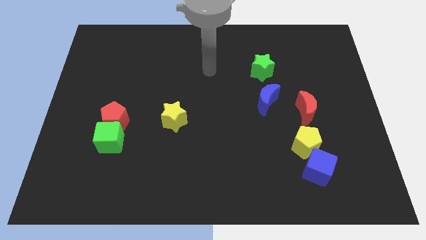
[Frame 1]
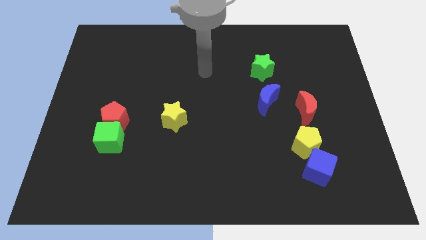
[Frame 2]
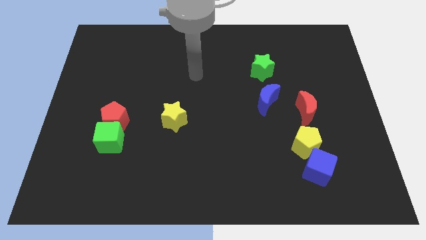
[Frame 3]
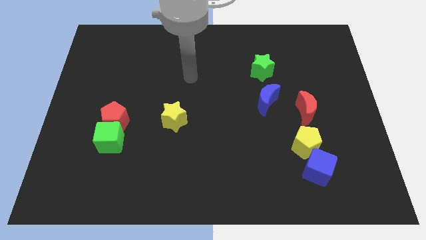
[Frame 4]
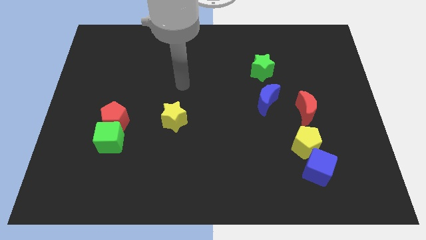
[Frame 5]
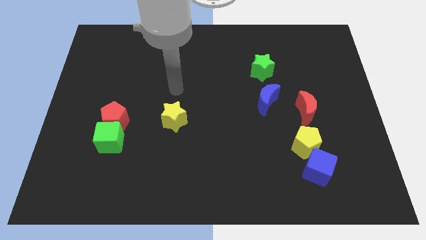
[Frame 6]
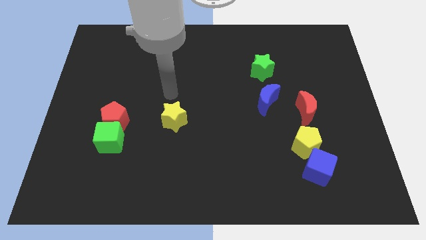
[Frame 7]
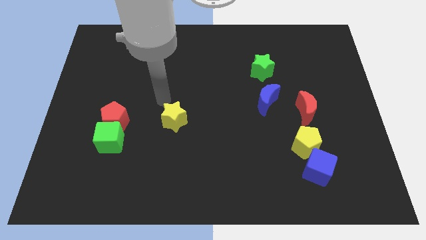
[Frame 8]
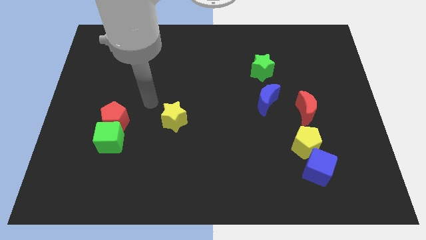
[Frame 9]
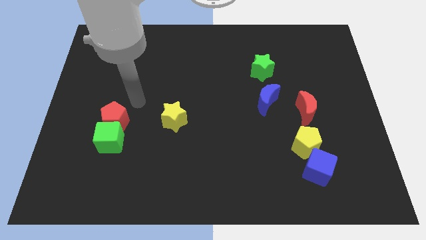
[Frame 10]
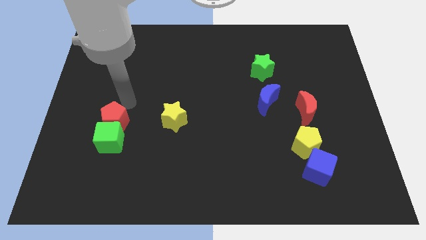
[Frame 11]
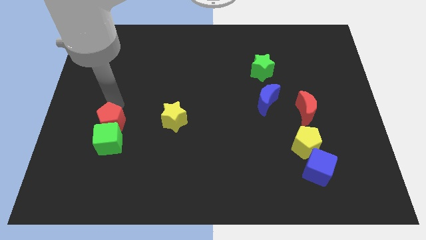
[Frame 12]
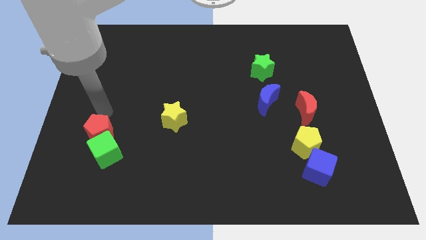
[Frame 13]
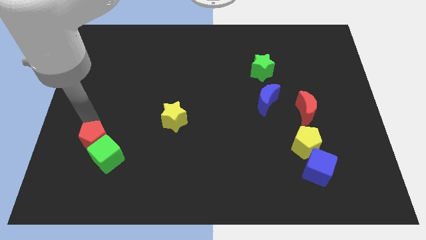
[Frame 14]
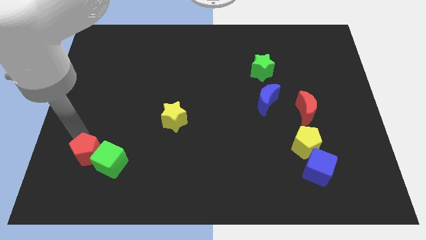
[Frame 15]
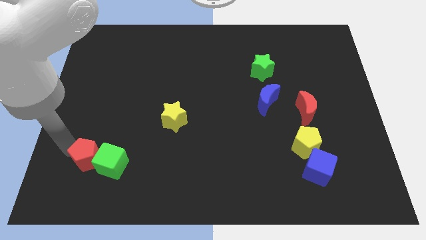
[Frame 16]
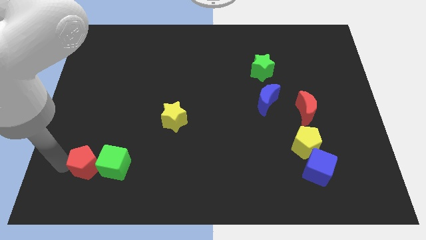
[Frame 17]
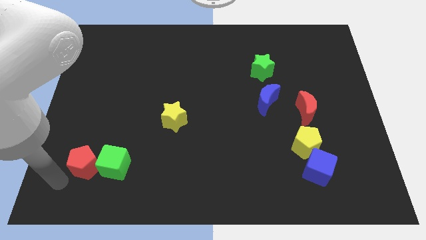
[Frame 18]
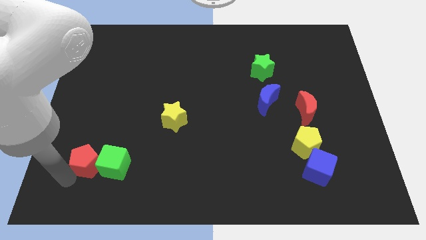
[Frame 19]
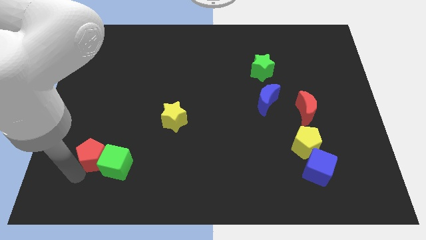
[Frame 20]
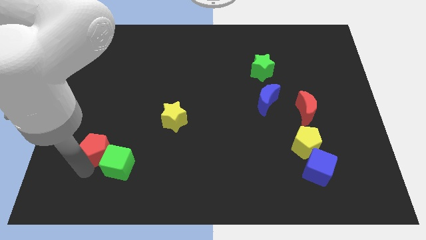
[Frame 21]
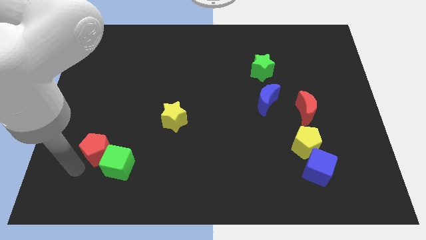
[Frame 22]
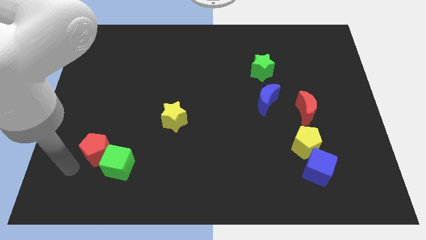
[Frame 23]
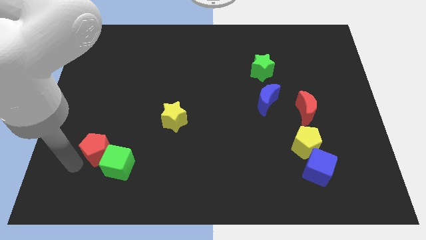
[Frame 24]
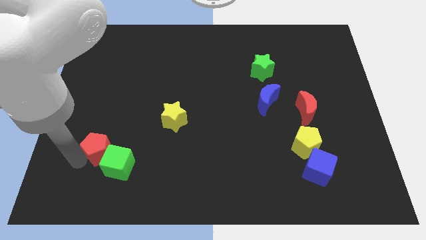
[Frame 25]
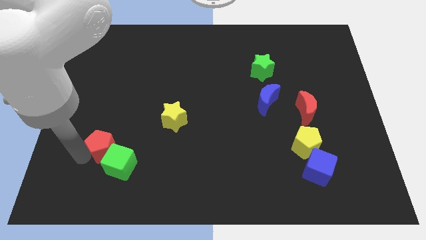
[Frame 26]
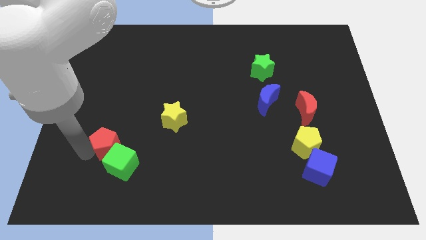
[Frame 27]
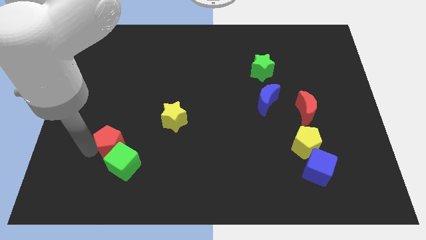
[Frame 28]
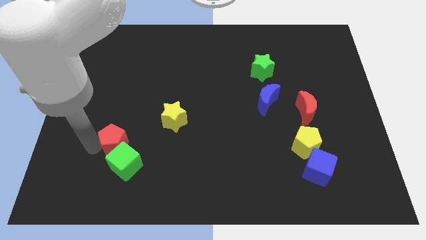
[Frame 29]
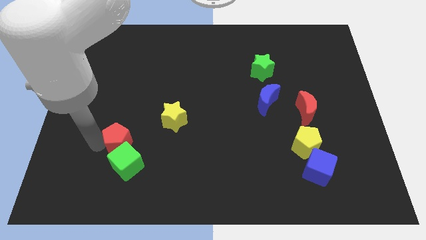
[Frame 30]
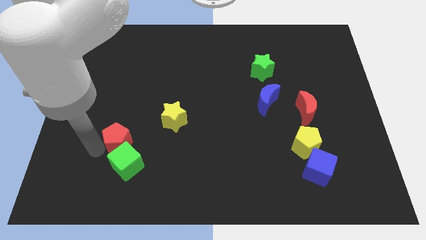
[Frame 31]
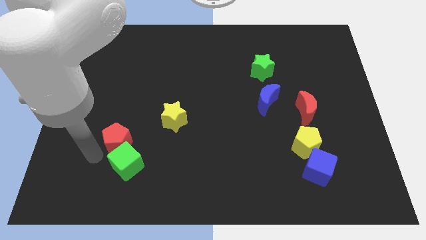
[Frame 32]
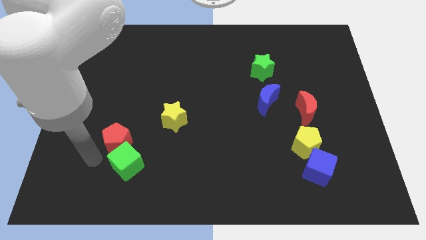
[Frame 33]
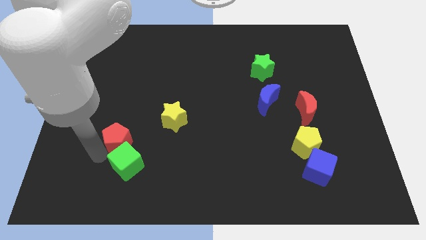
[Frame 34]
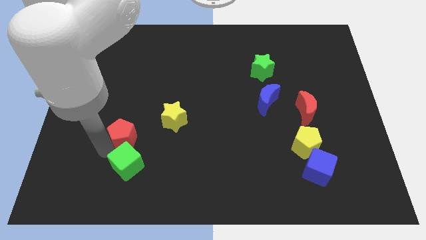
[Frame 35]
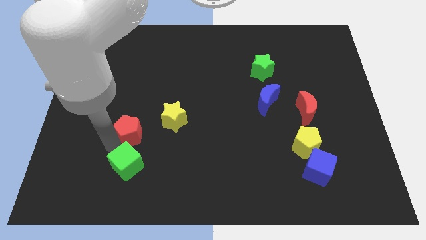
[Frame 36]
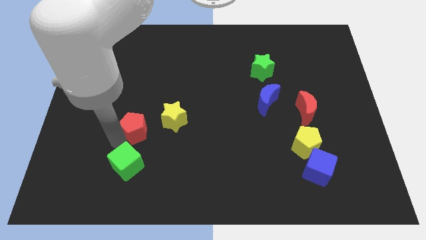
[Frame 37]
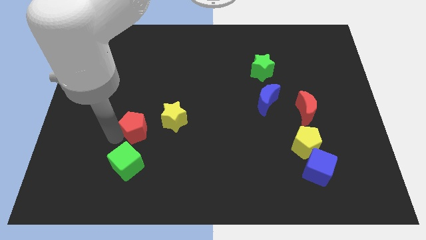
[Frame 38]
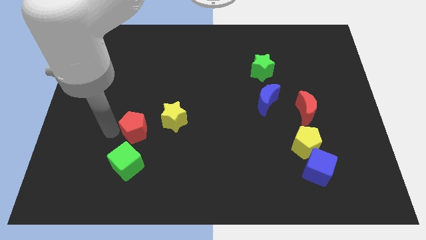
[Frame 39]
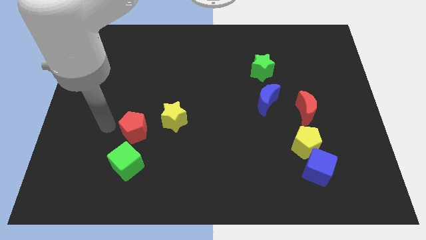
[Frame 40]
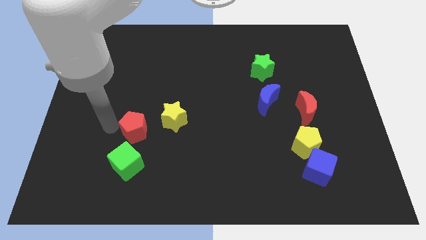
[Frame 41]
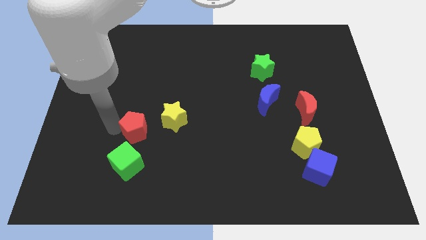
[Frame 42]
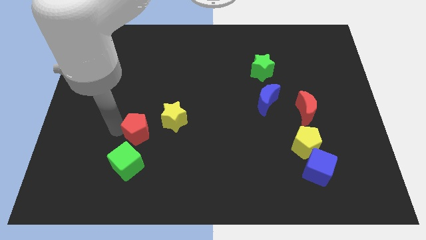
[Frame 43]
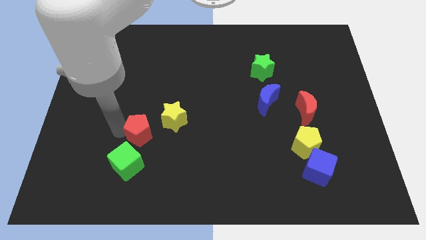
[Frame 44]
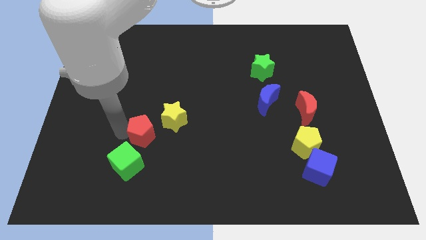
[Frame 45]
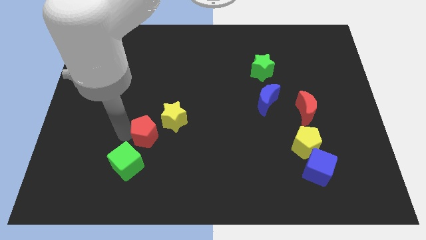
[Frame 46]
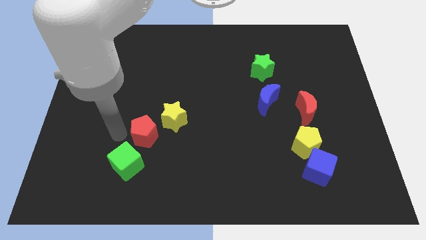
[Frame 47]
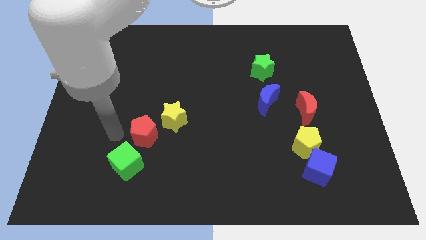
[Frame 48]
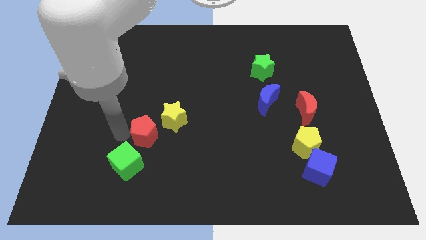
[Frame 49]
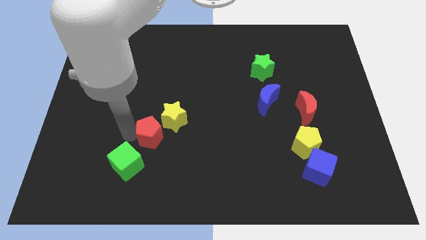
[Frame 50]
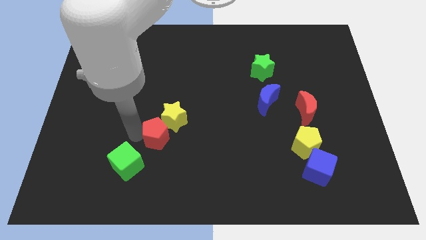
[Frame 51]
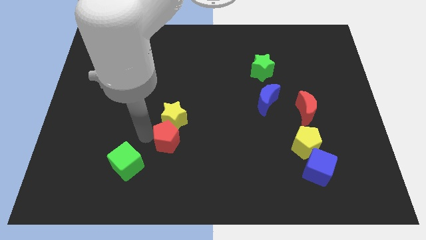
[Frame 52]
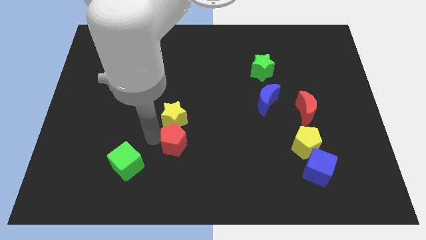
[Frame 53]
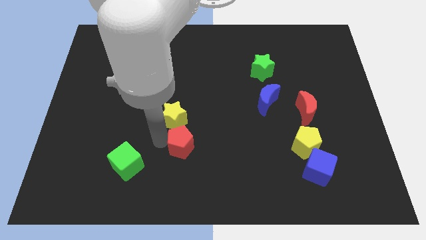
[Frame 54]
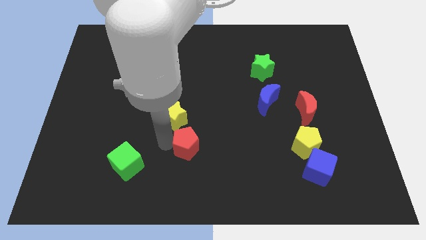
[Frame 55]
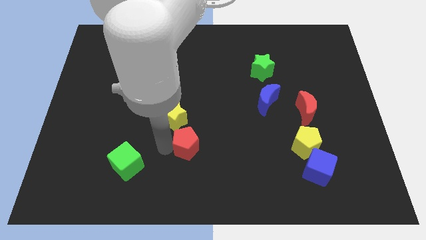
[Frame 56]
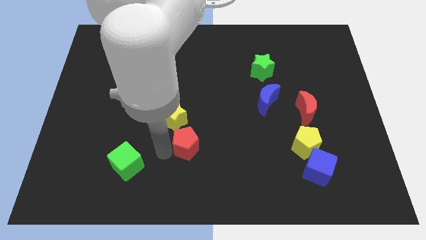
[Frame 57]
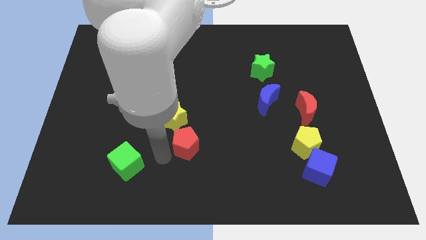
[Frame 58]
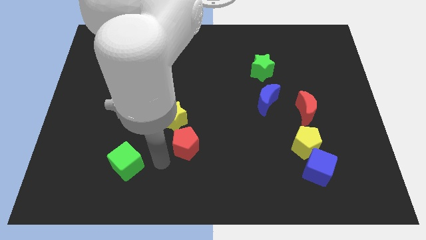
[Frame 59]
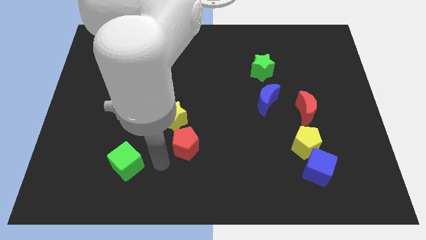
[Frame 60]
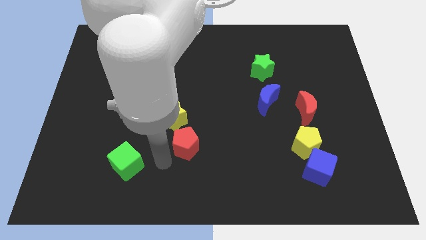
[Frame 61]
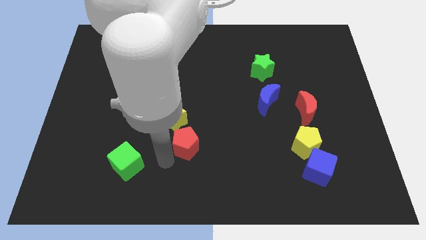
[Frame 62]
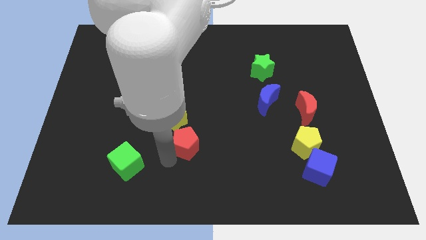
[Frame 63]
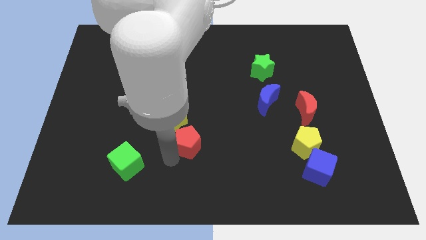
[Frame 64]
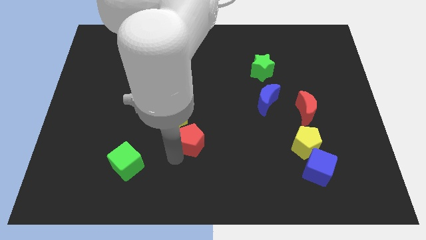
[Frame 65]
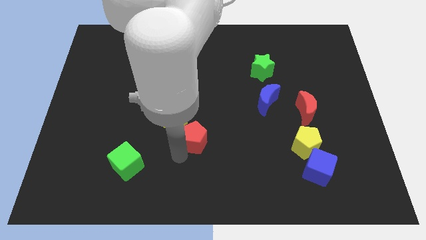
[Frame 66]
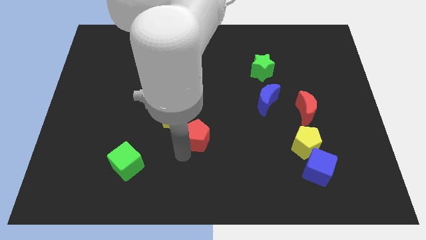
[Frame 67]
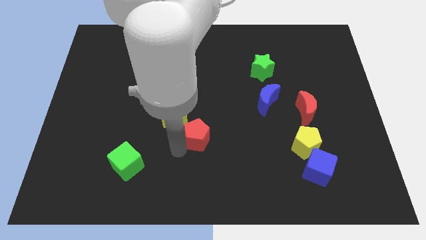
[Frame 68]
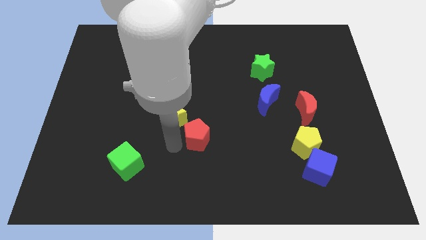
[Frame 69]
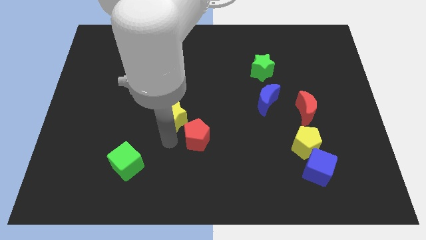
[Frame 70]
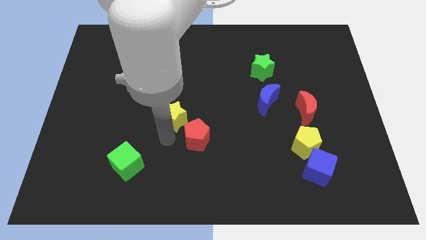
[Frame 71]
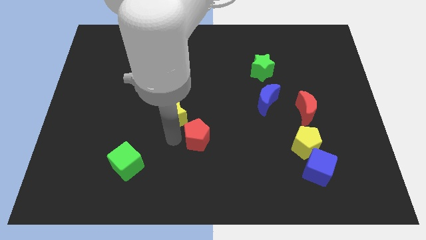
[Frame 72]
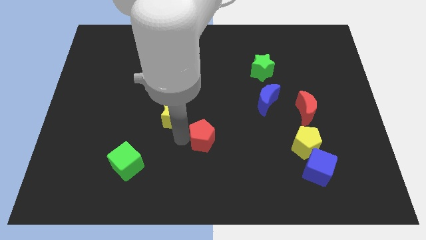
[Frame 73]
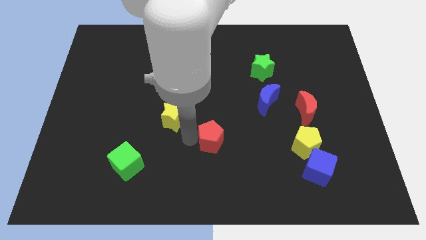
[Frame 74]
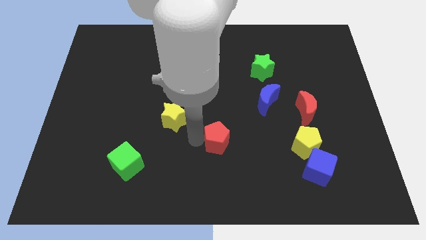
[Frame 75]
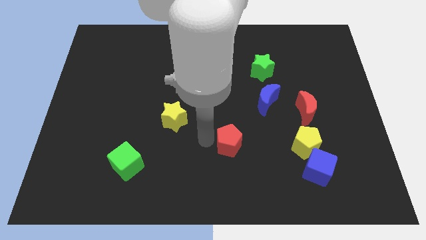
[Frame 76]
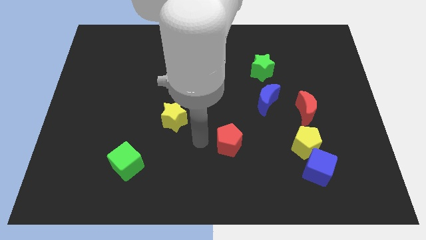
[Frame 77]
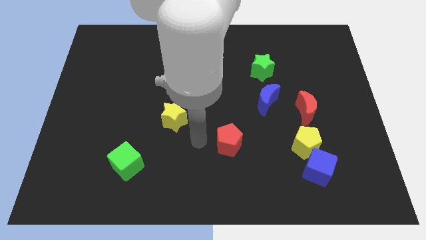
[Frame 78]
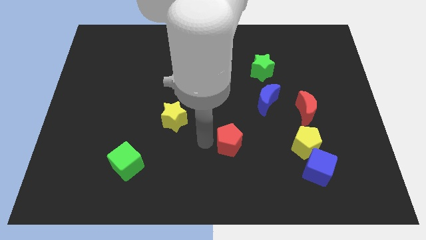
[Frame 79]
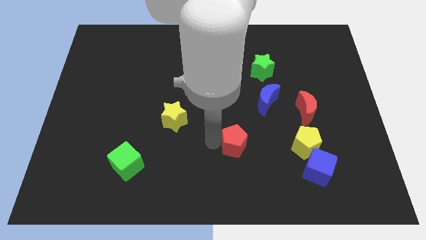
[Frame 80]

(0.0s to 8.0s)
push the red pentagon to the left side of the yellow pentagon
